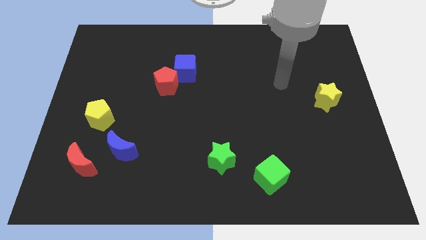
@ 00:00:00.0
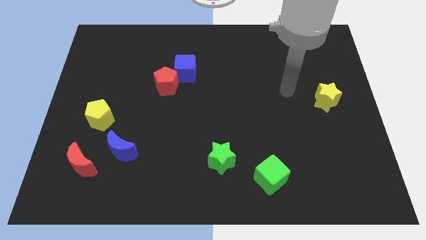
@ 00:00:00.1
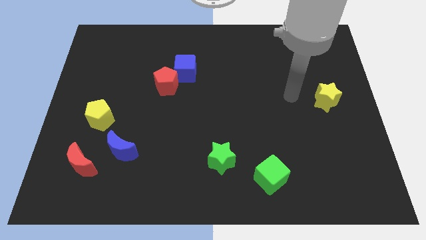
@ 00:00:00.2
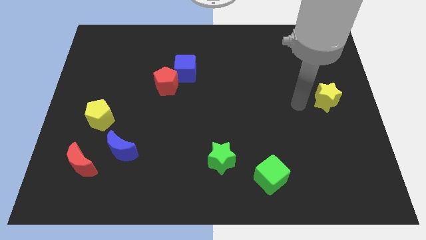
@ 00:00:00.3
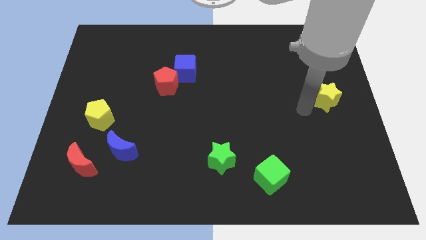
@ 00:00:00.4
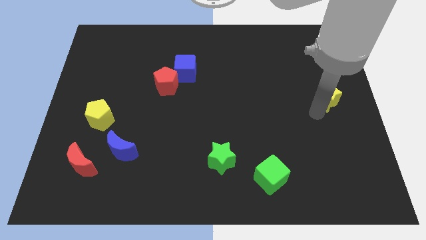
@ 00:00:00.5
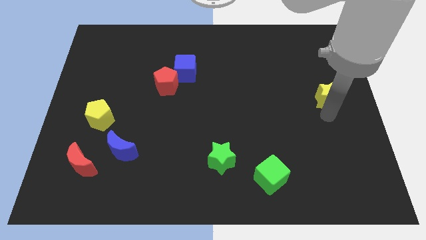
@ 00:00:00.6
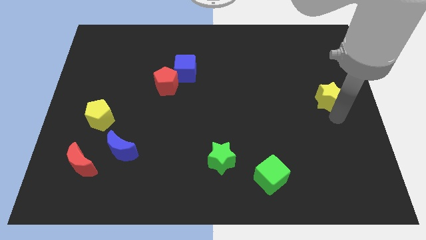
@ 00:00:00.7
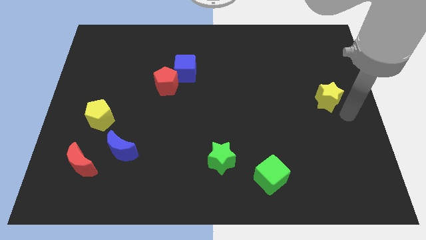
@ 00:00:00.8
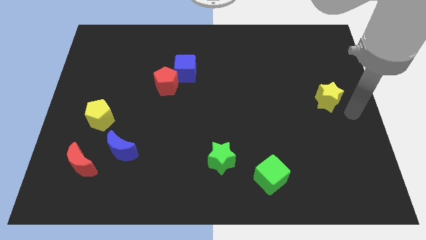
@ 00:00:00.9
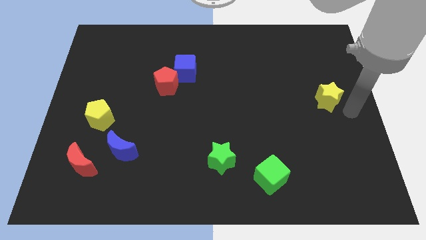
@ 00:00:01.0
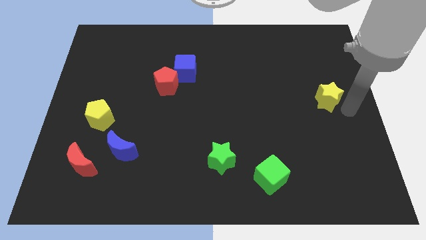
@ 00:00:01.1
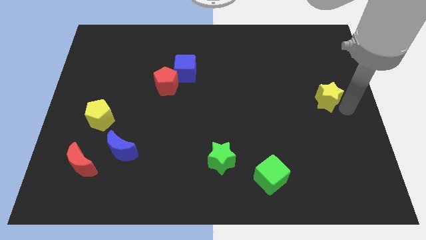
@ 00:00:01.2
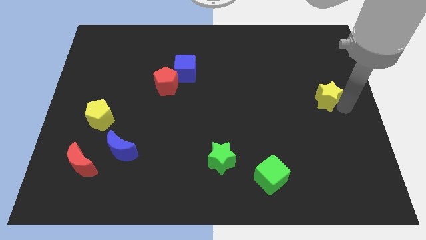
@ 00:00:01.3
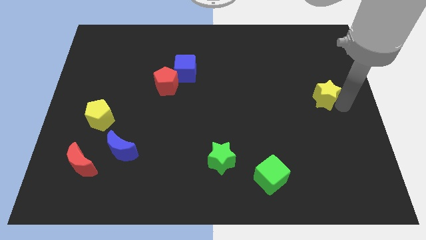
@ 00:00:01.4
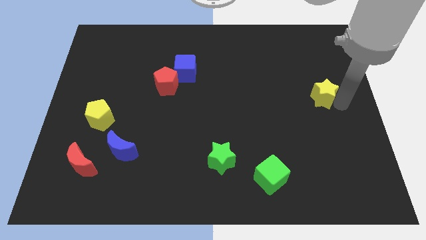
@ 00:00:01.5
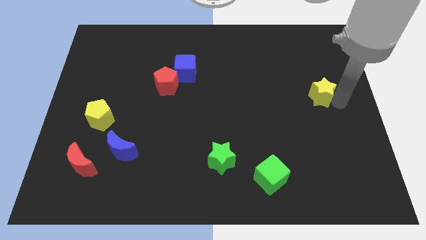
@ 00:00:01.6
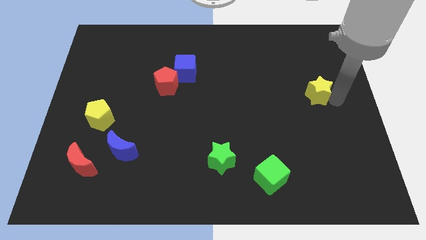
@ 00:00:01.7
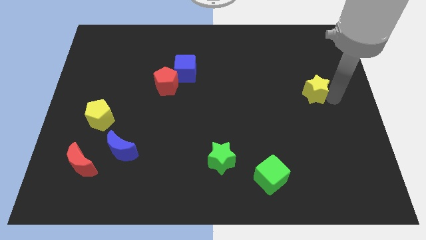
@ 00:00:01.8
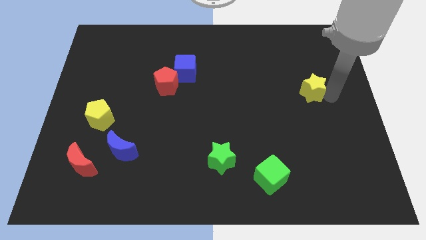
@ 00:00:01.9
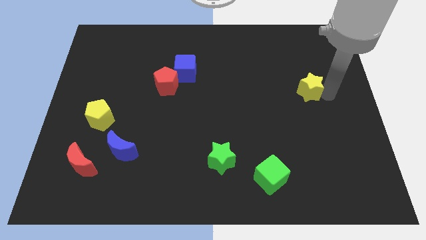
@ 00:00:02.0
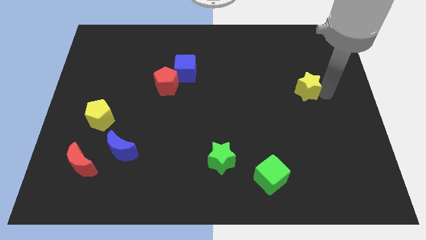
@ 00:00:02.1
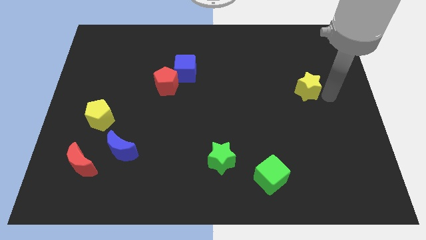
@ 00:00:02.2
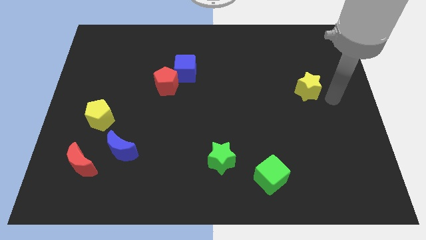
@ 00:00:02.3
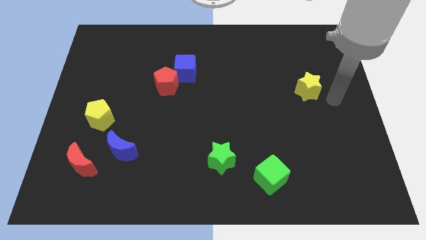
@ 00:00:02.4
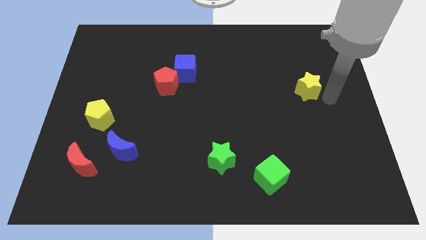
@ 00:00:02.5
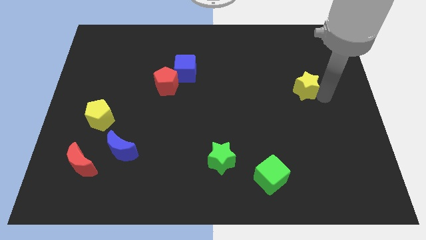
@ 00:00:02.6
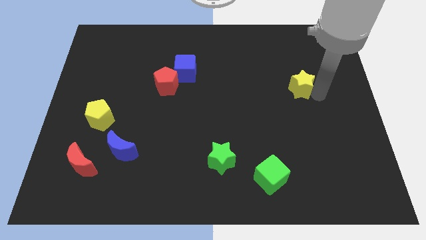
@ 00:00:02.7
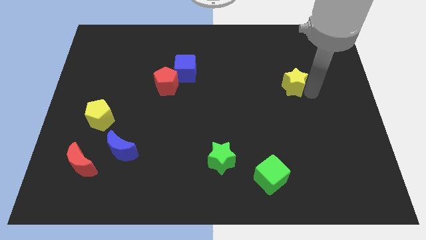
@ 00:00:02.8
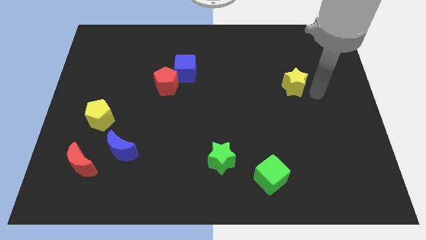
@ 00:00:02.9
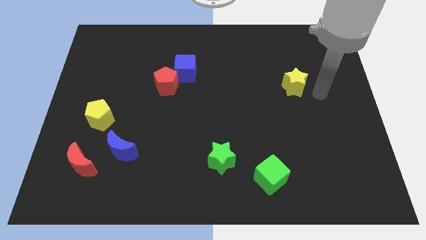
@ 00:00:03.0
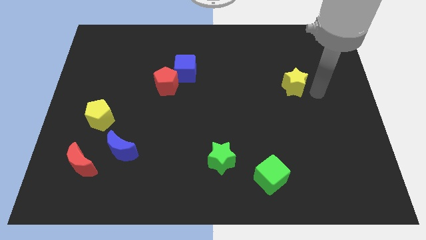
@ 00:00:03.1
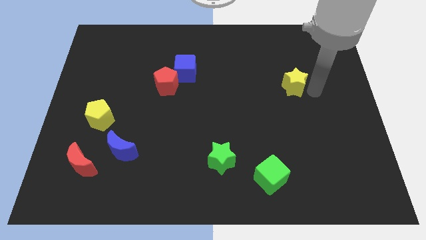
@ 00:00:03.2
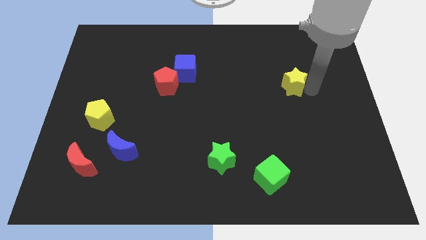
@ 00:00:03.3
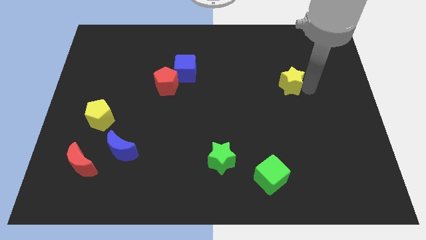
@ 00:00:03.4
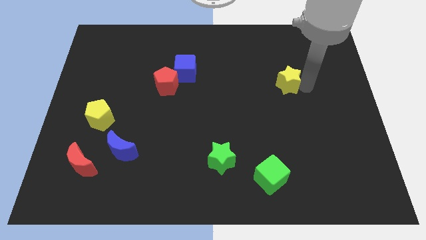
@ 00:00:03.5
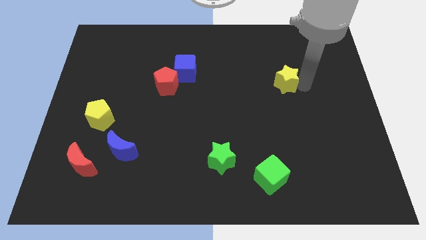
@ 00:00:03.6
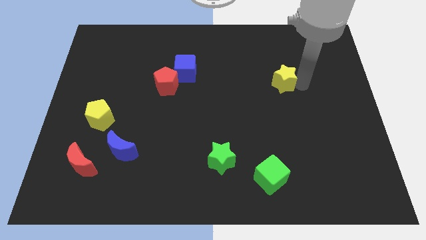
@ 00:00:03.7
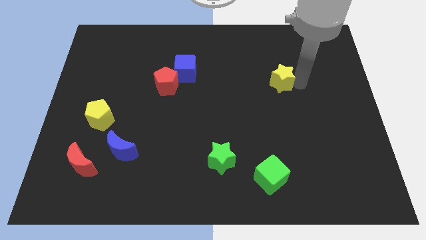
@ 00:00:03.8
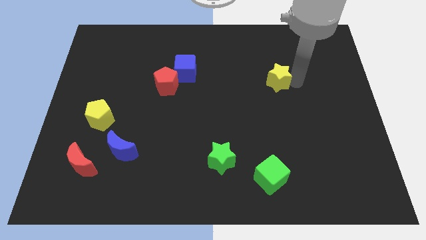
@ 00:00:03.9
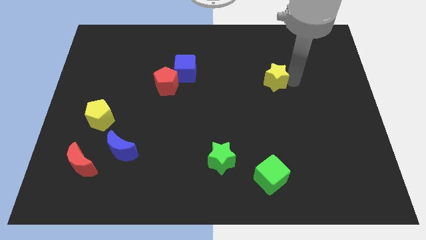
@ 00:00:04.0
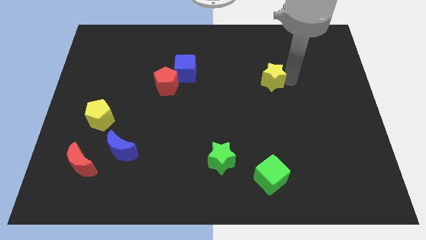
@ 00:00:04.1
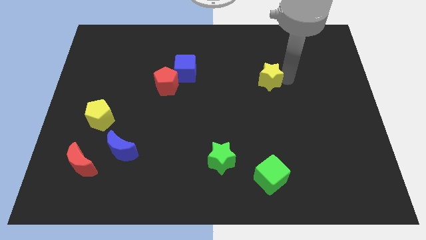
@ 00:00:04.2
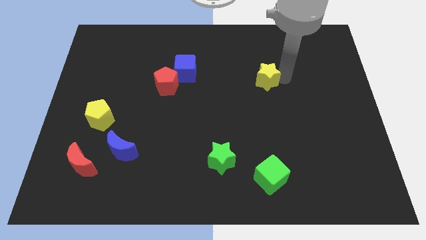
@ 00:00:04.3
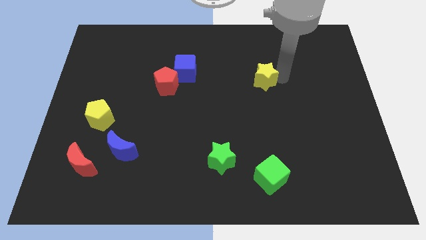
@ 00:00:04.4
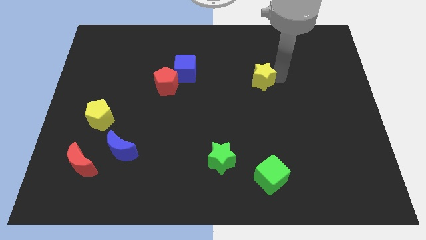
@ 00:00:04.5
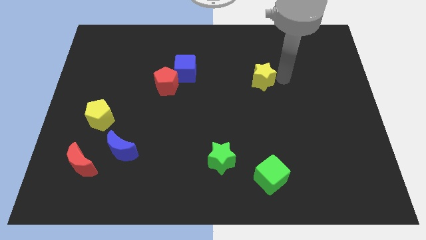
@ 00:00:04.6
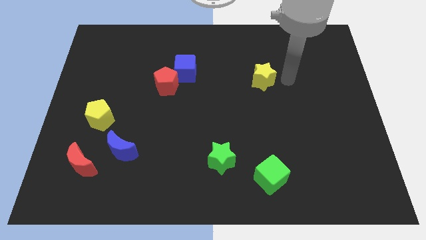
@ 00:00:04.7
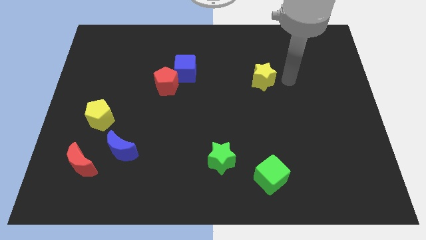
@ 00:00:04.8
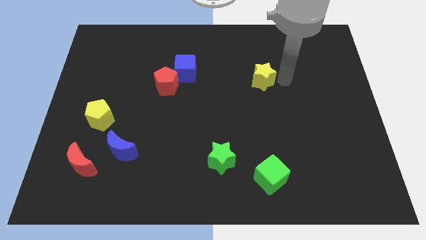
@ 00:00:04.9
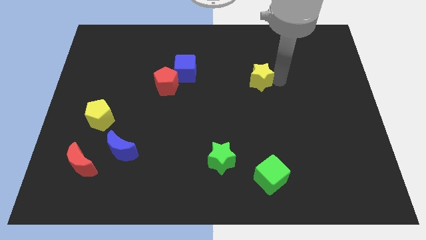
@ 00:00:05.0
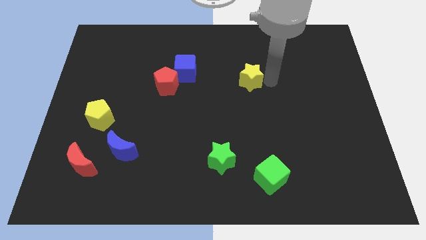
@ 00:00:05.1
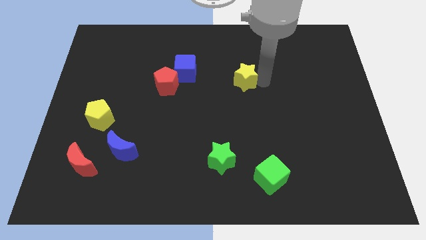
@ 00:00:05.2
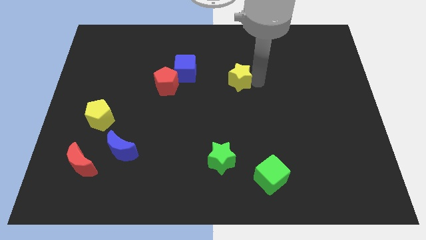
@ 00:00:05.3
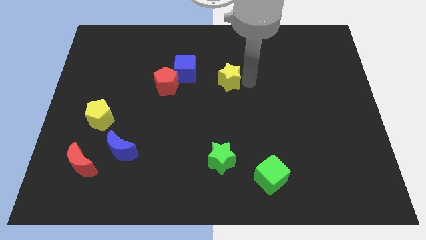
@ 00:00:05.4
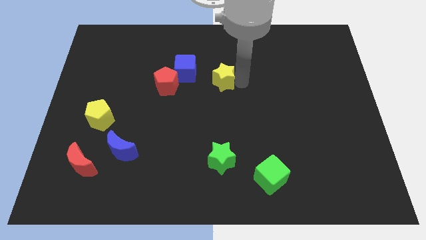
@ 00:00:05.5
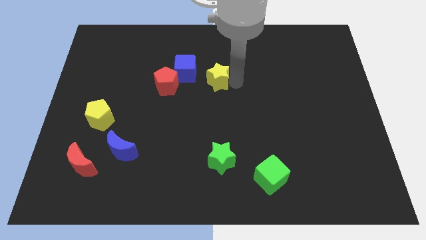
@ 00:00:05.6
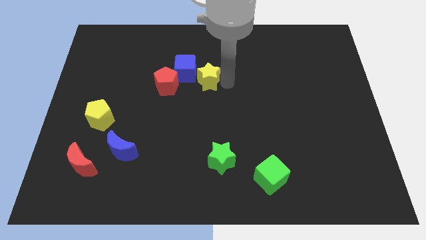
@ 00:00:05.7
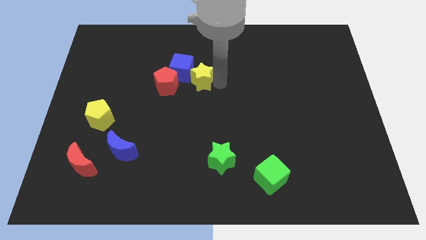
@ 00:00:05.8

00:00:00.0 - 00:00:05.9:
slide the yellow star next to the blue cube

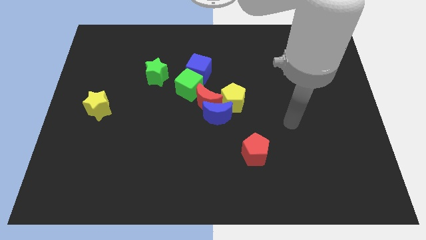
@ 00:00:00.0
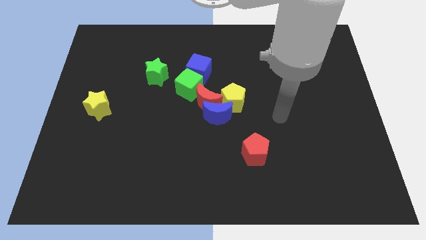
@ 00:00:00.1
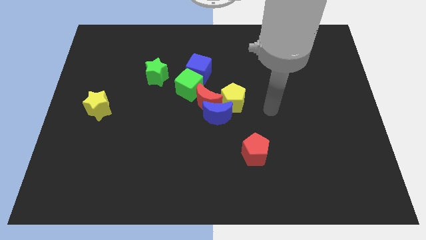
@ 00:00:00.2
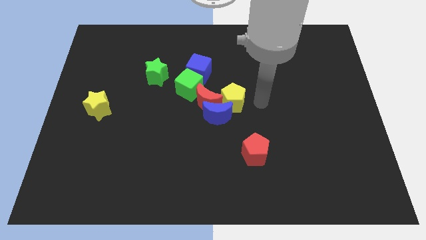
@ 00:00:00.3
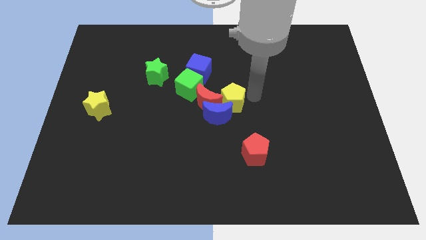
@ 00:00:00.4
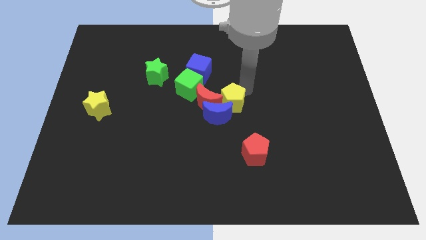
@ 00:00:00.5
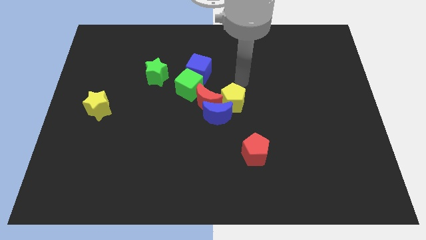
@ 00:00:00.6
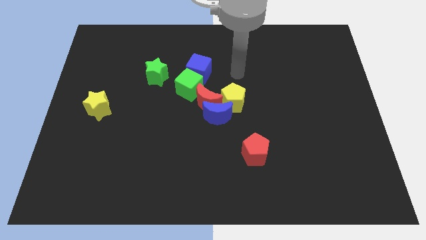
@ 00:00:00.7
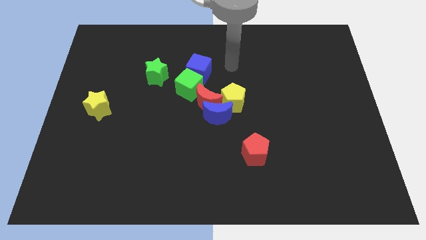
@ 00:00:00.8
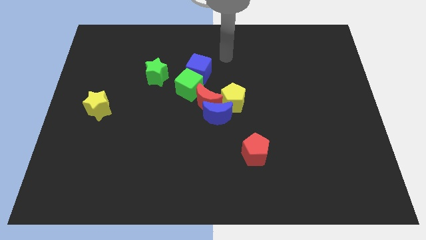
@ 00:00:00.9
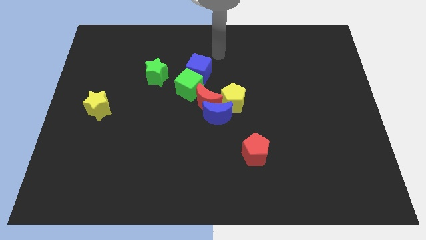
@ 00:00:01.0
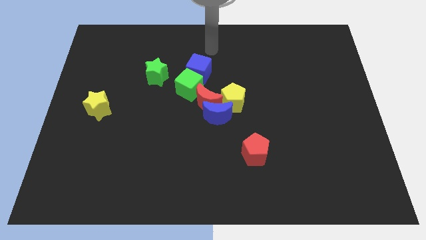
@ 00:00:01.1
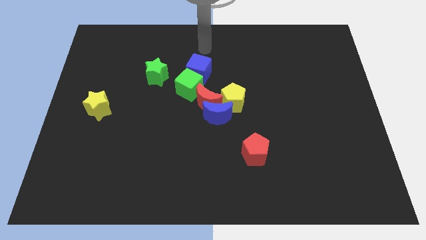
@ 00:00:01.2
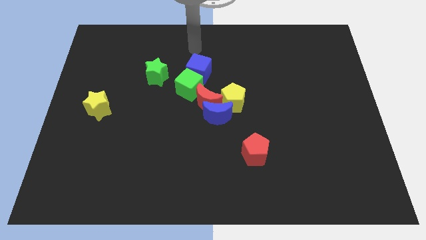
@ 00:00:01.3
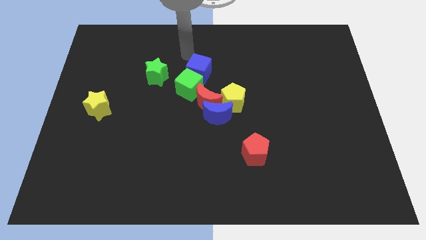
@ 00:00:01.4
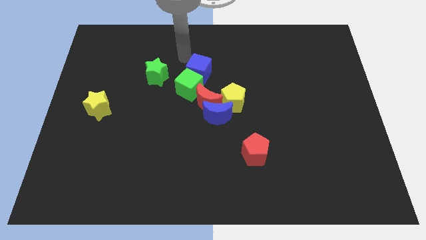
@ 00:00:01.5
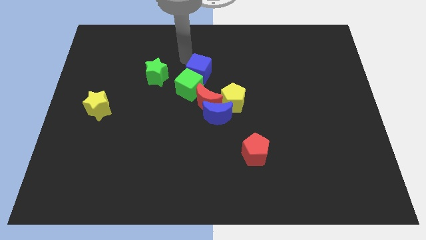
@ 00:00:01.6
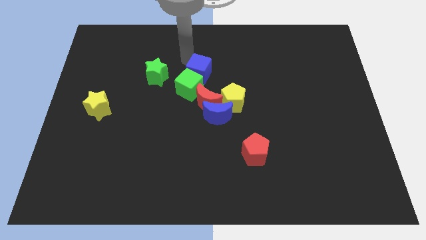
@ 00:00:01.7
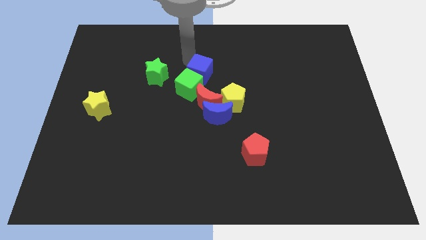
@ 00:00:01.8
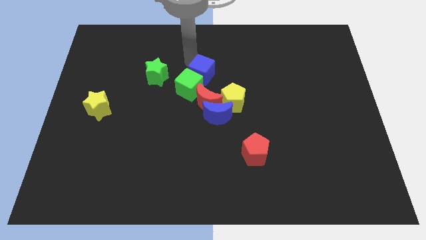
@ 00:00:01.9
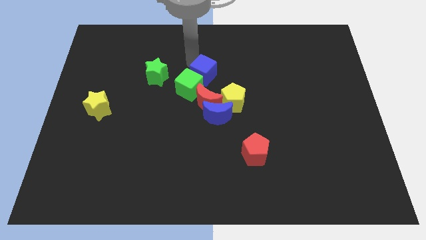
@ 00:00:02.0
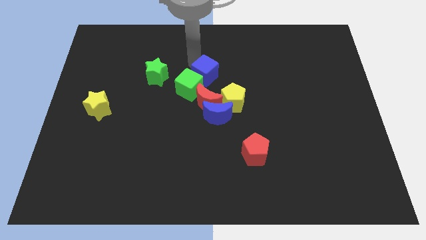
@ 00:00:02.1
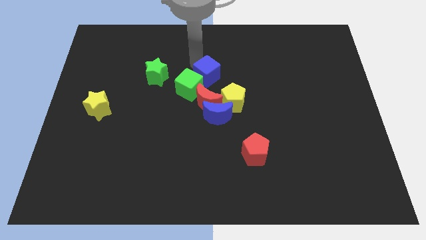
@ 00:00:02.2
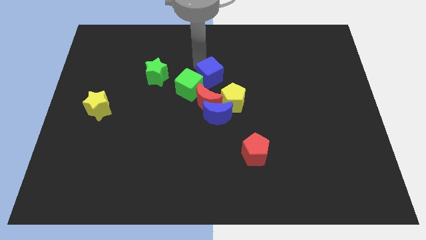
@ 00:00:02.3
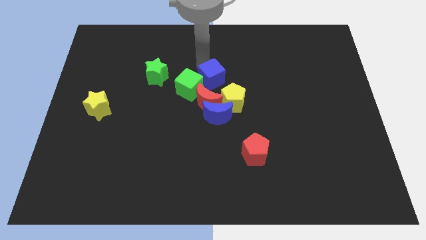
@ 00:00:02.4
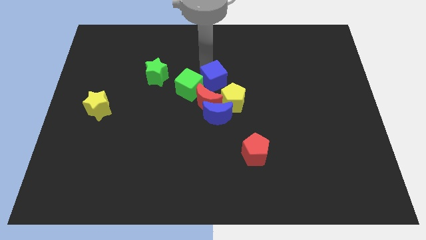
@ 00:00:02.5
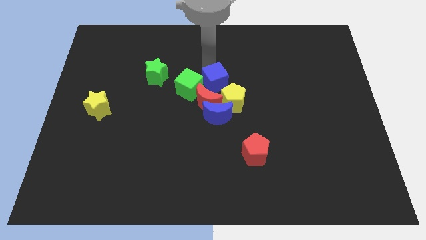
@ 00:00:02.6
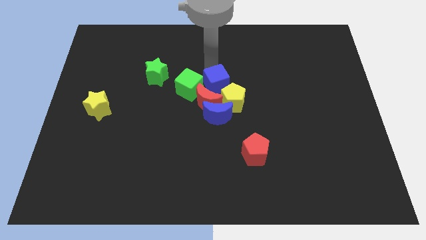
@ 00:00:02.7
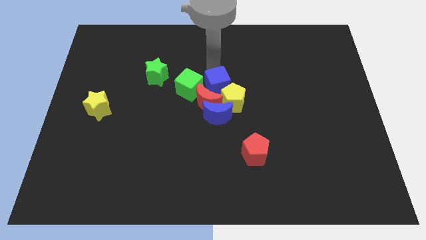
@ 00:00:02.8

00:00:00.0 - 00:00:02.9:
push the blue cube next to the red moon
